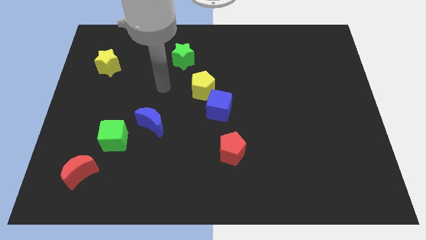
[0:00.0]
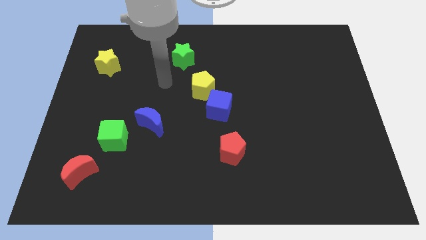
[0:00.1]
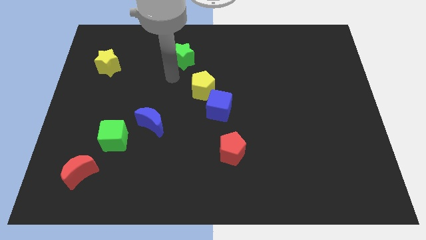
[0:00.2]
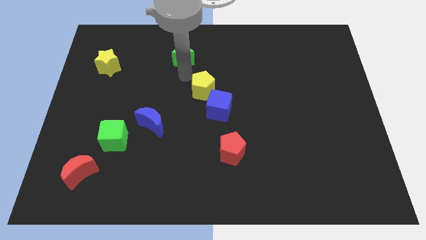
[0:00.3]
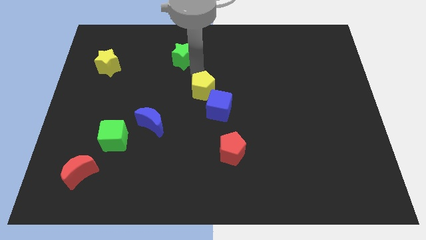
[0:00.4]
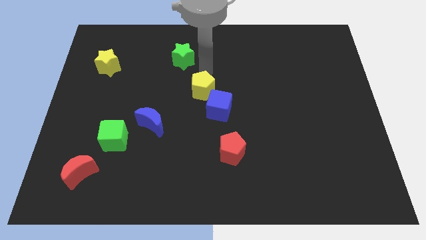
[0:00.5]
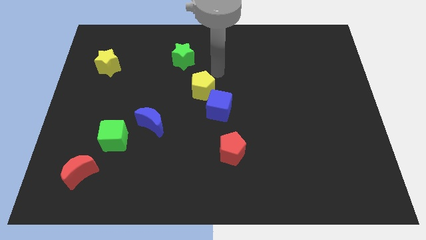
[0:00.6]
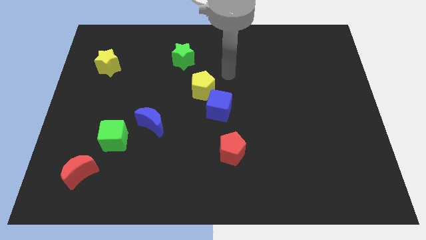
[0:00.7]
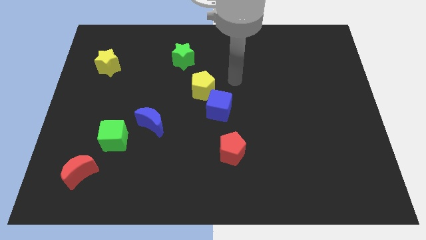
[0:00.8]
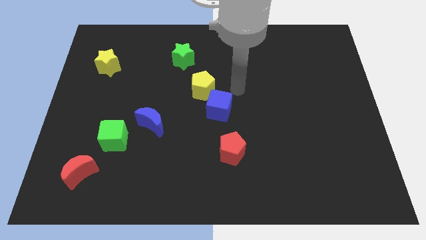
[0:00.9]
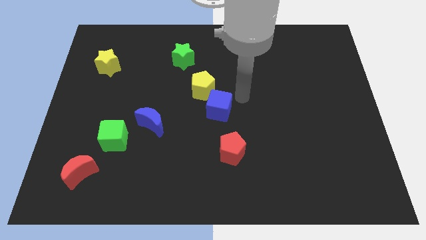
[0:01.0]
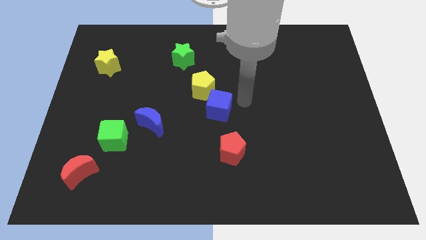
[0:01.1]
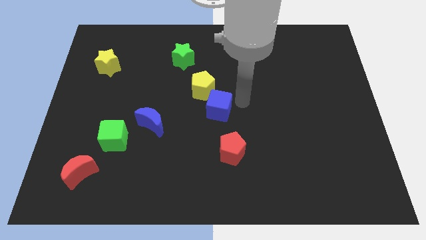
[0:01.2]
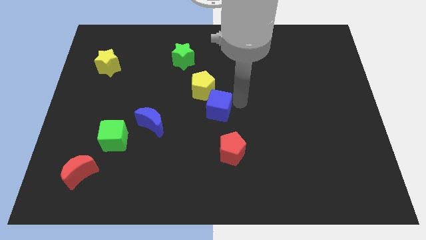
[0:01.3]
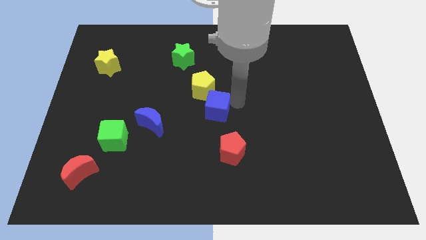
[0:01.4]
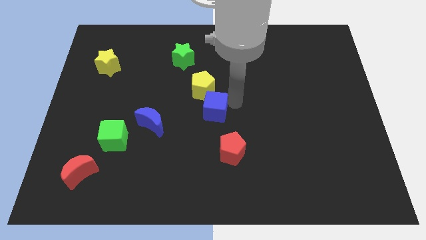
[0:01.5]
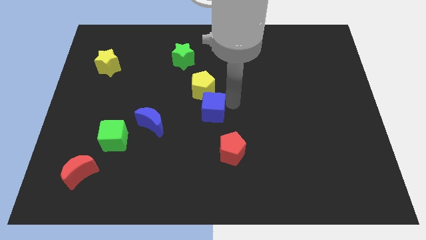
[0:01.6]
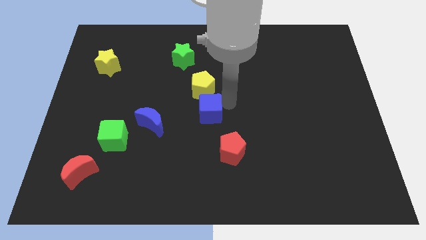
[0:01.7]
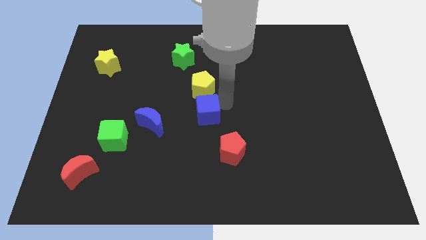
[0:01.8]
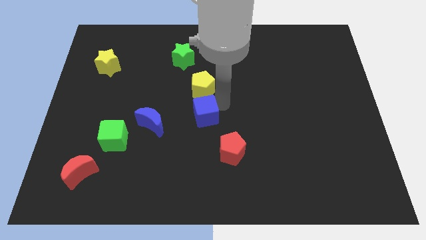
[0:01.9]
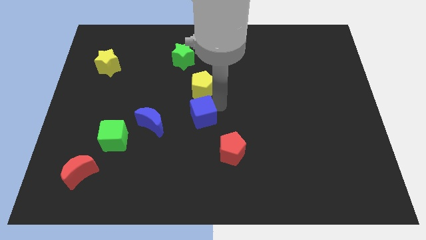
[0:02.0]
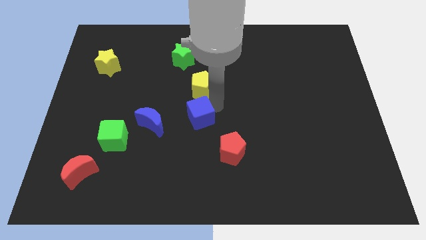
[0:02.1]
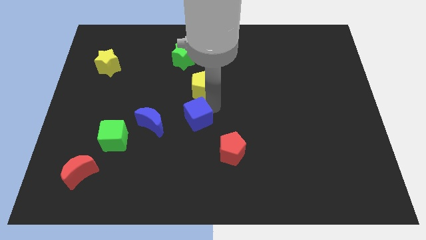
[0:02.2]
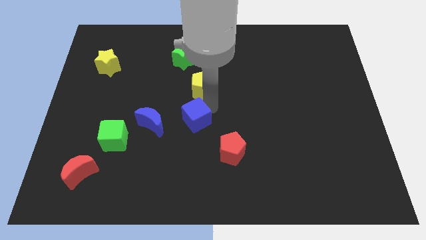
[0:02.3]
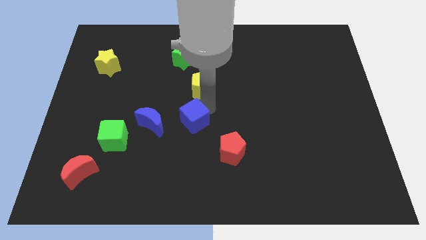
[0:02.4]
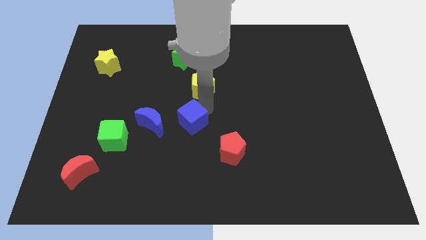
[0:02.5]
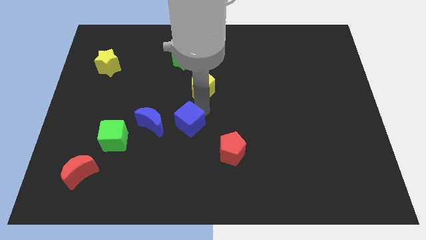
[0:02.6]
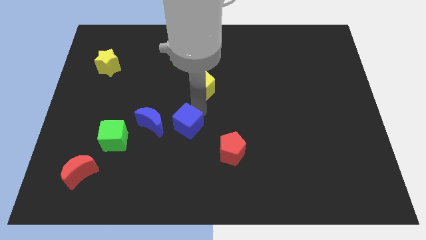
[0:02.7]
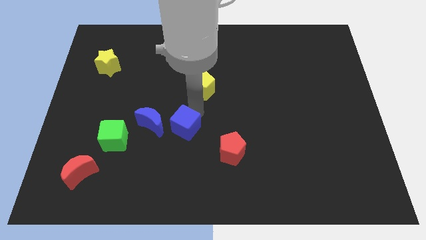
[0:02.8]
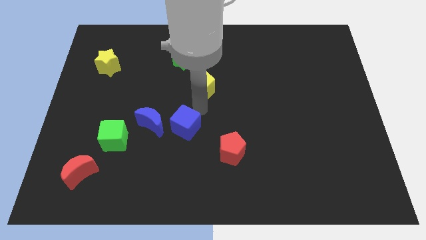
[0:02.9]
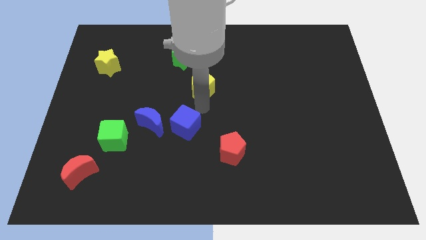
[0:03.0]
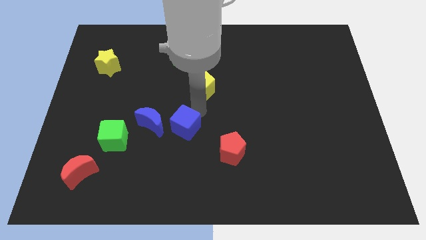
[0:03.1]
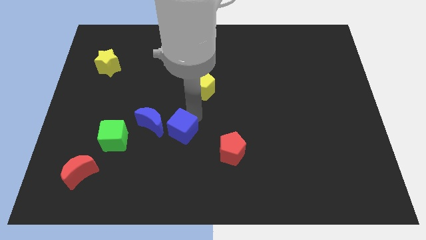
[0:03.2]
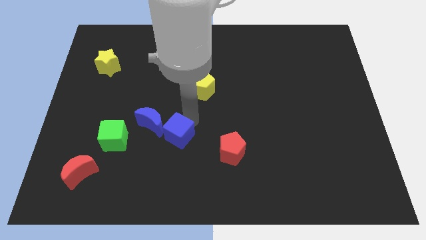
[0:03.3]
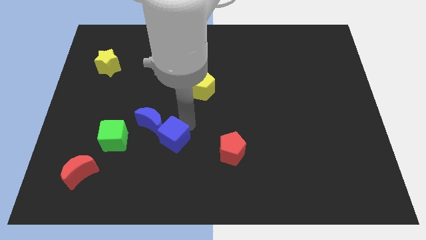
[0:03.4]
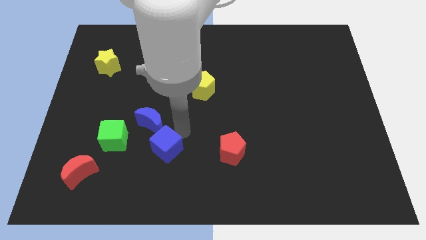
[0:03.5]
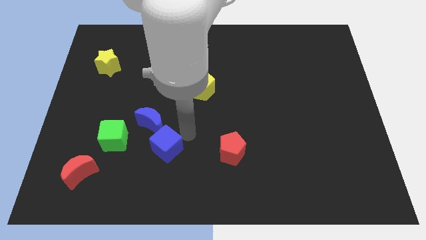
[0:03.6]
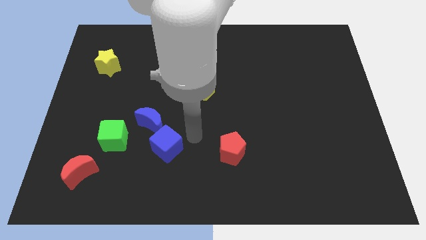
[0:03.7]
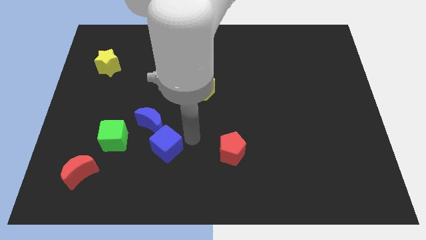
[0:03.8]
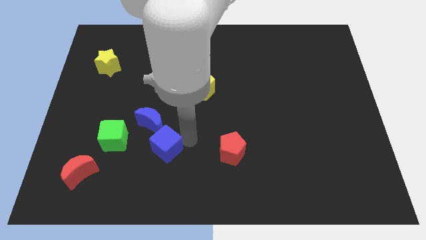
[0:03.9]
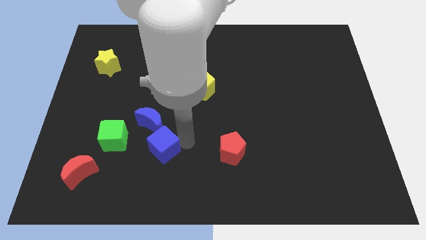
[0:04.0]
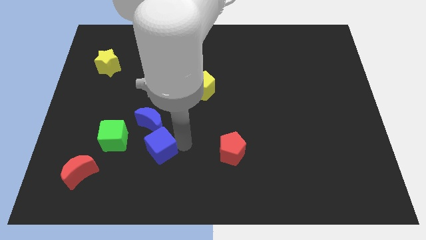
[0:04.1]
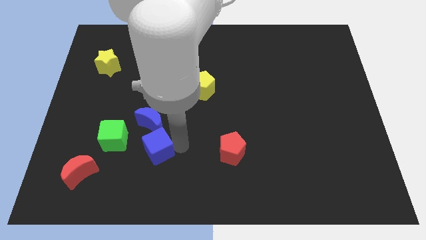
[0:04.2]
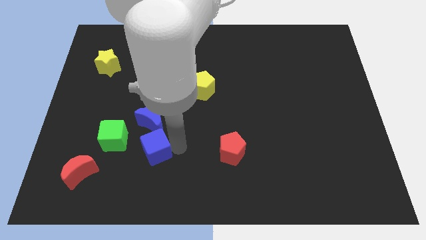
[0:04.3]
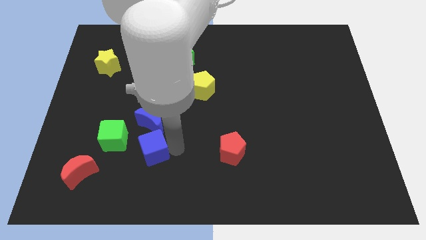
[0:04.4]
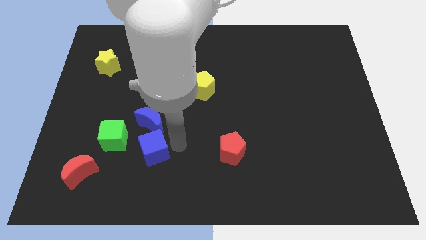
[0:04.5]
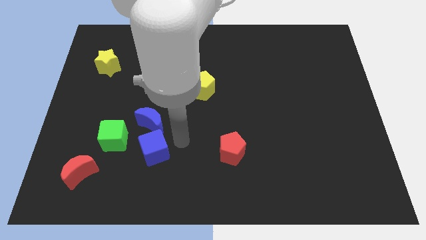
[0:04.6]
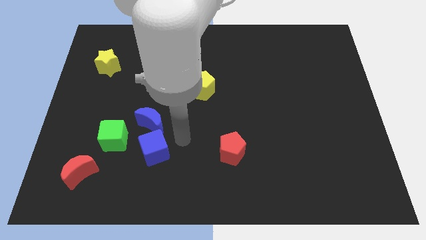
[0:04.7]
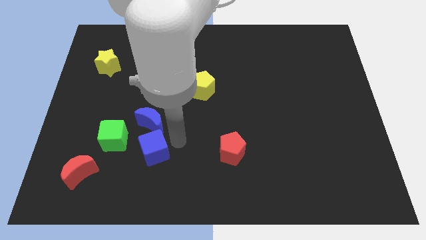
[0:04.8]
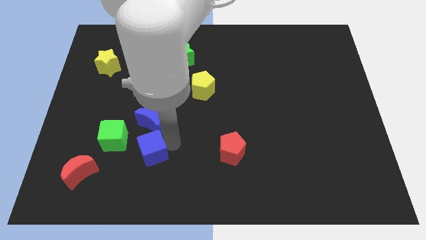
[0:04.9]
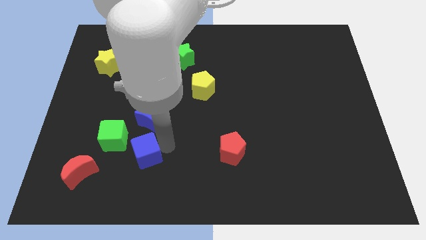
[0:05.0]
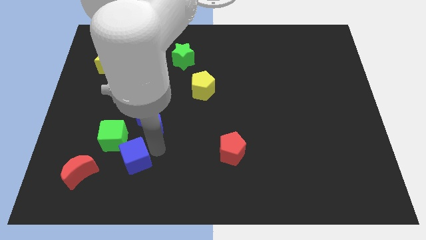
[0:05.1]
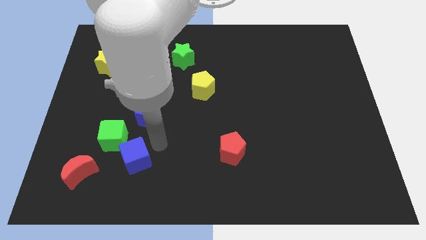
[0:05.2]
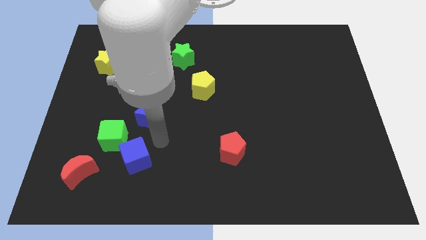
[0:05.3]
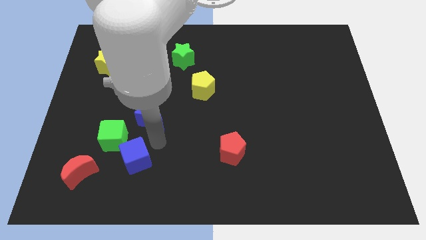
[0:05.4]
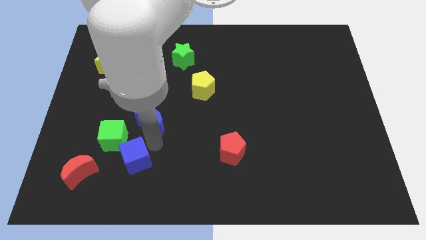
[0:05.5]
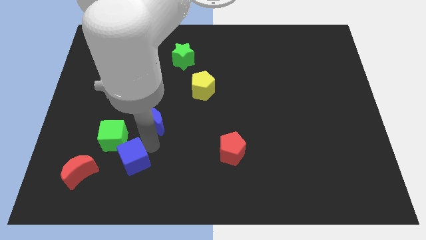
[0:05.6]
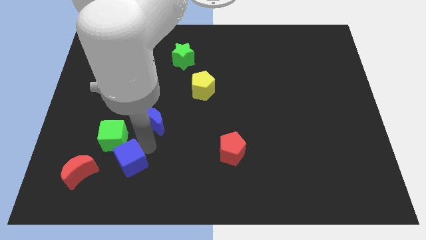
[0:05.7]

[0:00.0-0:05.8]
put the blue cube to the bottom side of the green cube

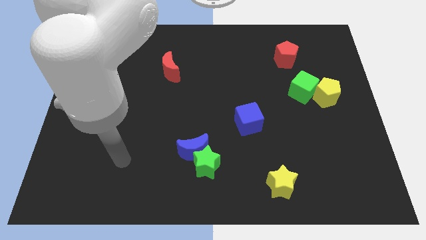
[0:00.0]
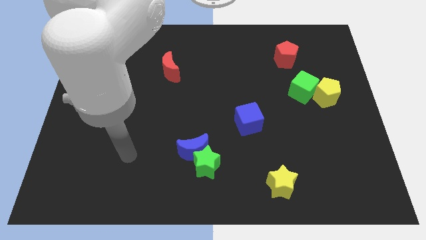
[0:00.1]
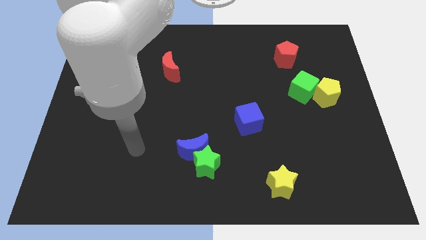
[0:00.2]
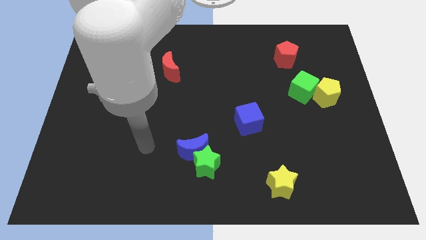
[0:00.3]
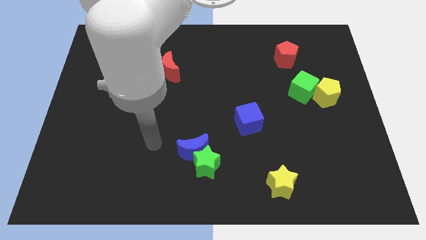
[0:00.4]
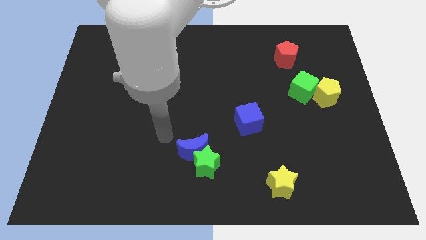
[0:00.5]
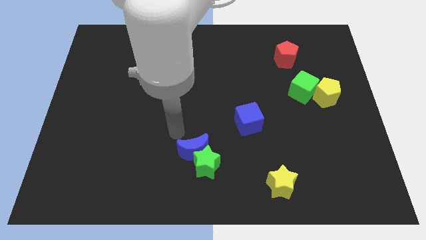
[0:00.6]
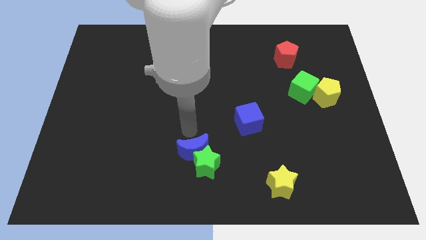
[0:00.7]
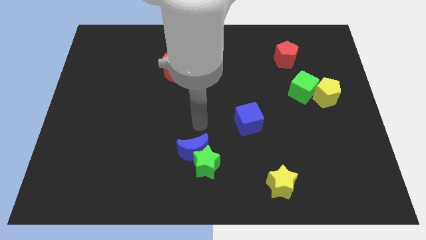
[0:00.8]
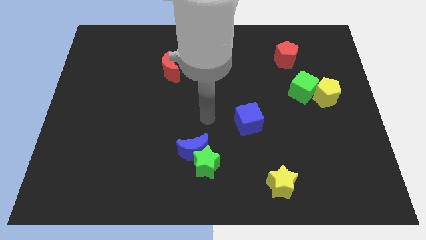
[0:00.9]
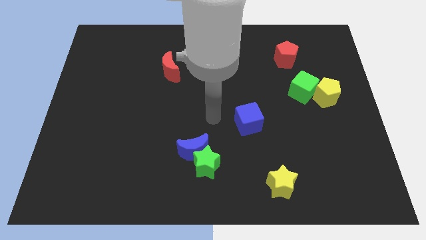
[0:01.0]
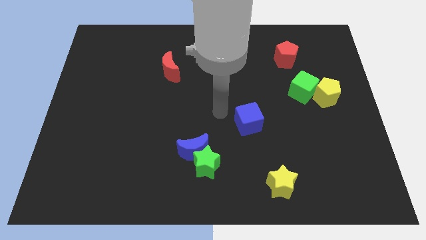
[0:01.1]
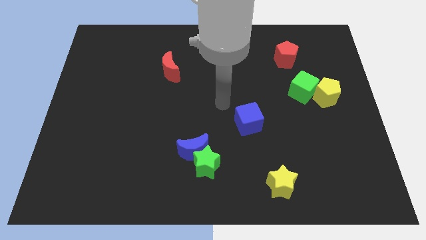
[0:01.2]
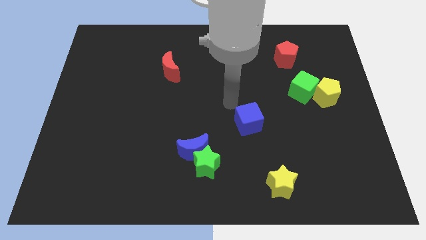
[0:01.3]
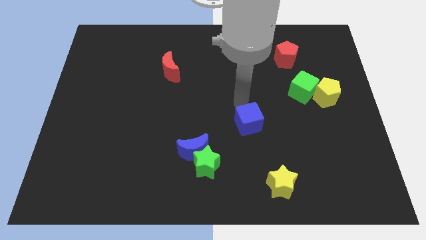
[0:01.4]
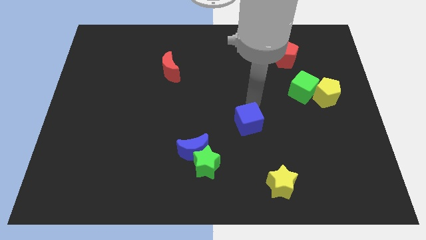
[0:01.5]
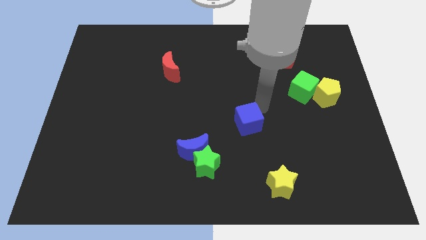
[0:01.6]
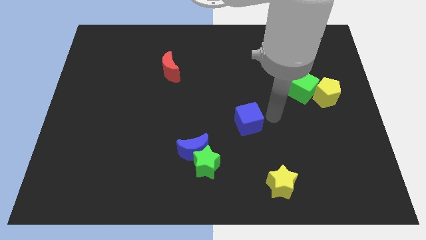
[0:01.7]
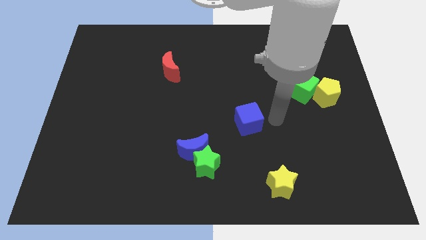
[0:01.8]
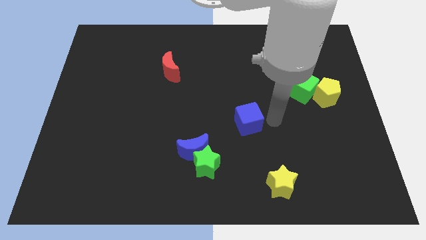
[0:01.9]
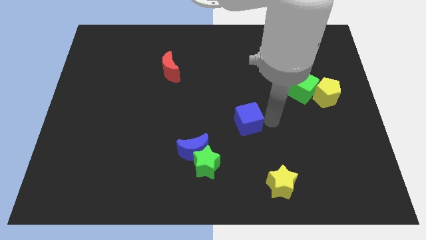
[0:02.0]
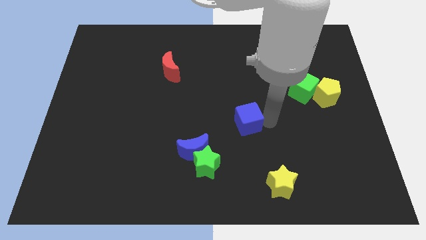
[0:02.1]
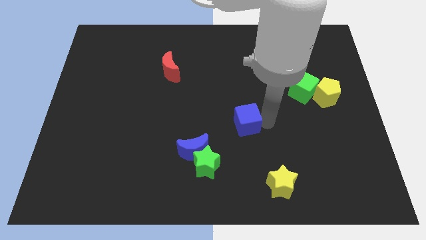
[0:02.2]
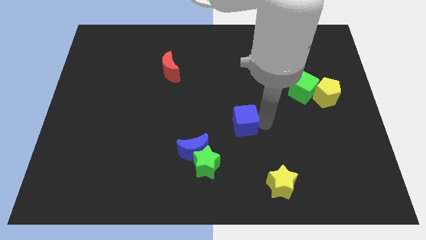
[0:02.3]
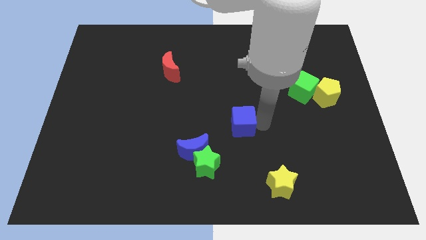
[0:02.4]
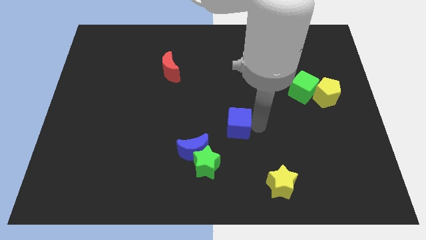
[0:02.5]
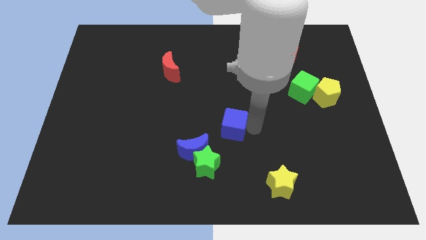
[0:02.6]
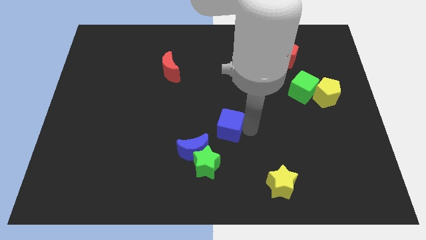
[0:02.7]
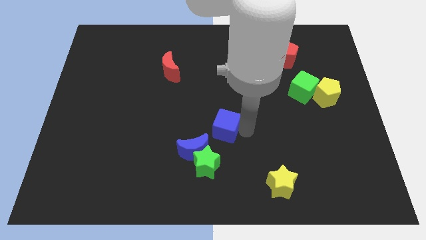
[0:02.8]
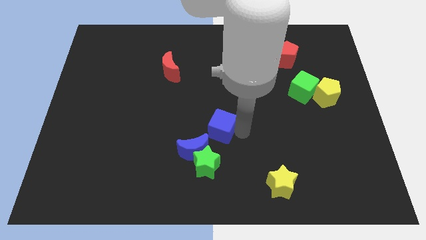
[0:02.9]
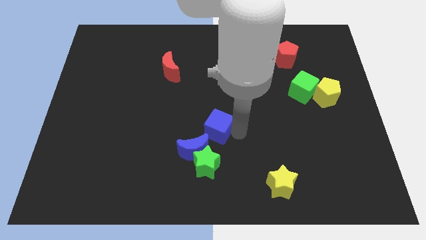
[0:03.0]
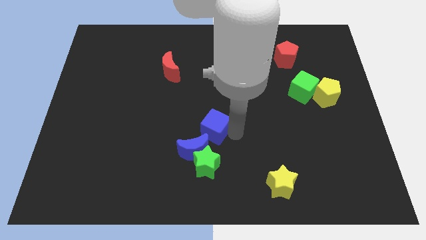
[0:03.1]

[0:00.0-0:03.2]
move the blue cube to the top of the blue moon
